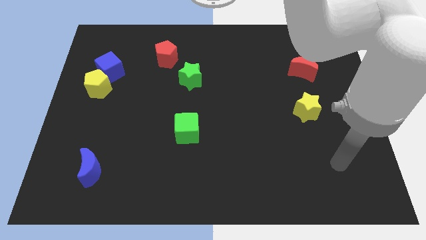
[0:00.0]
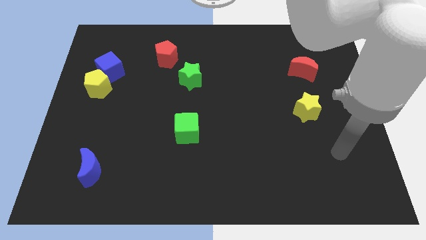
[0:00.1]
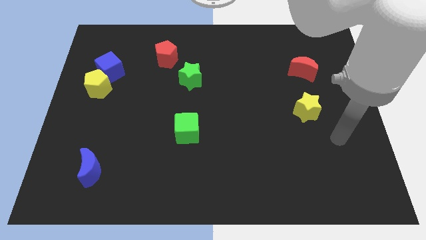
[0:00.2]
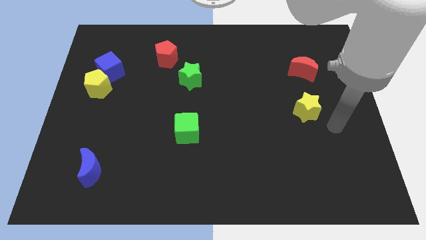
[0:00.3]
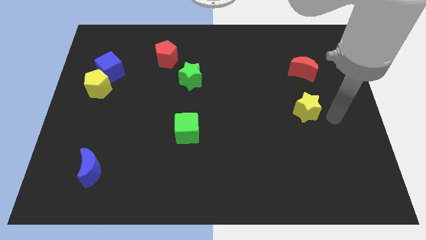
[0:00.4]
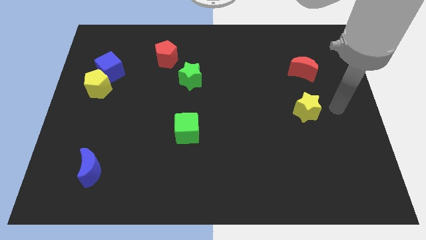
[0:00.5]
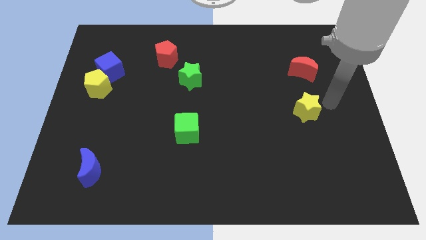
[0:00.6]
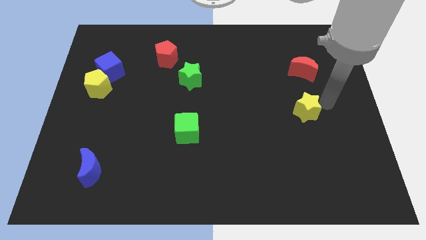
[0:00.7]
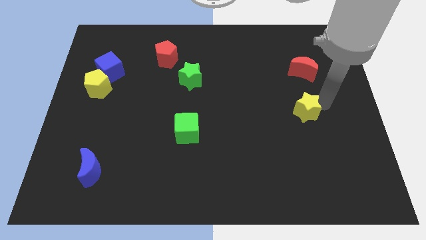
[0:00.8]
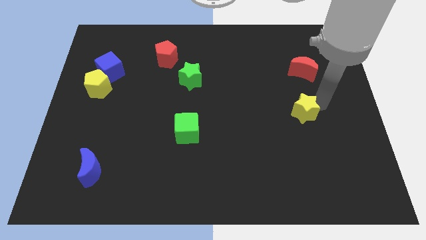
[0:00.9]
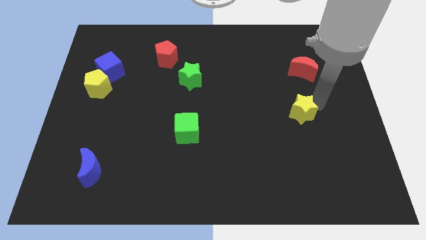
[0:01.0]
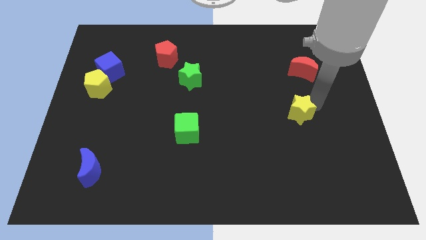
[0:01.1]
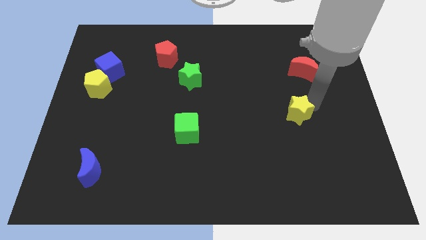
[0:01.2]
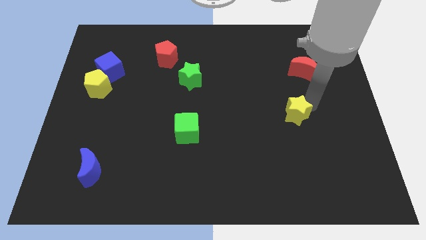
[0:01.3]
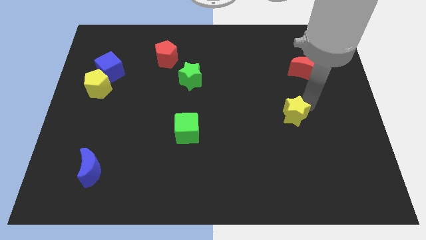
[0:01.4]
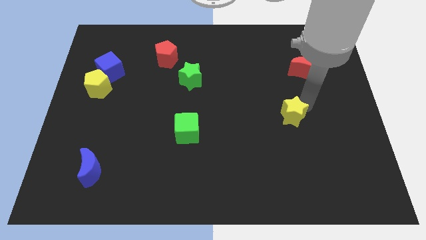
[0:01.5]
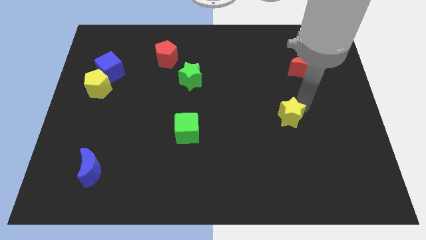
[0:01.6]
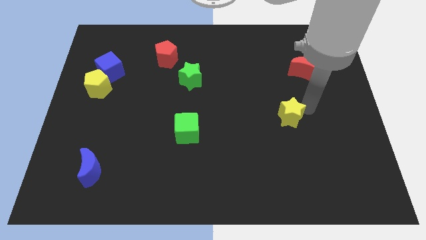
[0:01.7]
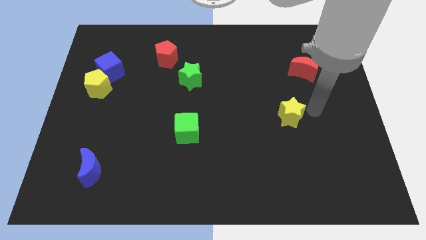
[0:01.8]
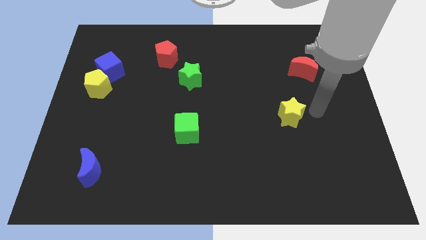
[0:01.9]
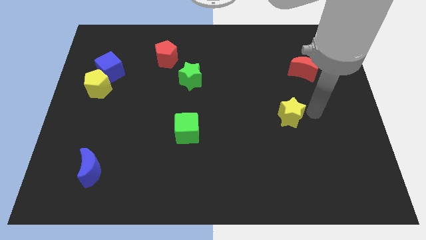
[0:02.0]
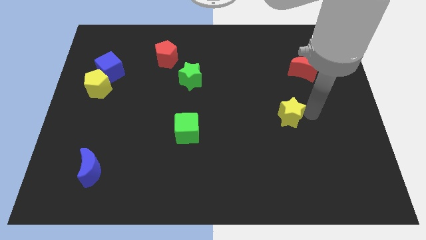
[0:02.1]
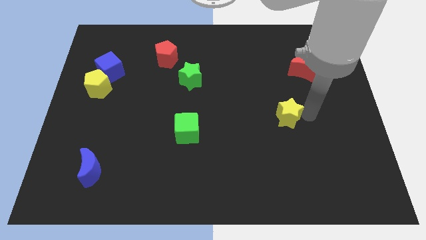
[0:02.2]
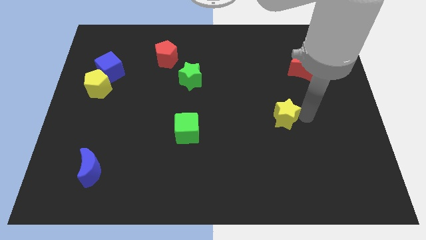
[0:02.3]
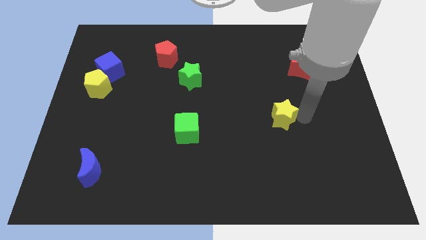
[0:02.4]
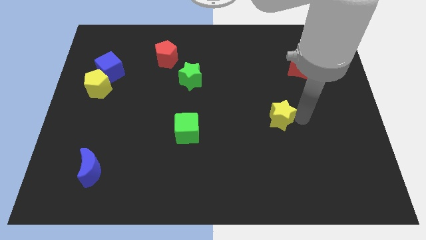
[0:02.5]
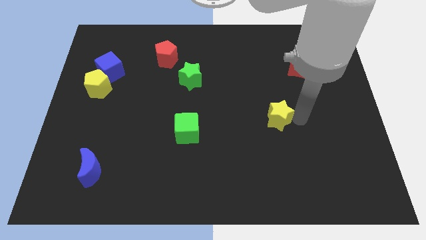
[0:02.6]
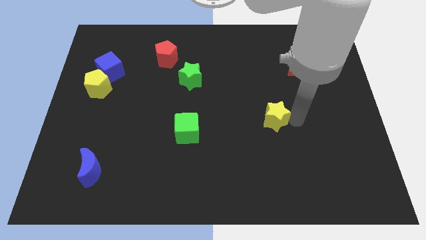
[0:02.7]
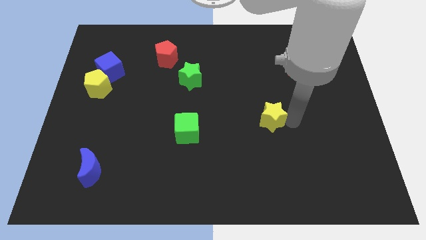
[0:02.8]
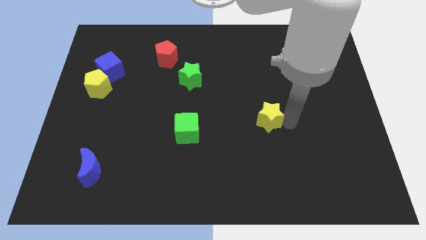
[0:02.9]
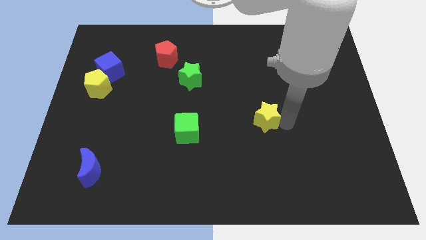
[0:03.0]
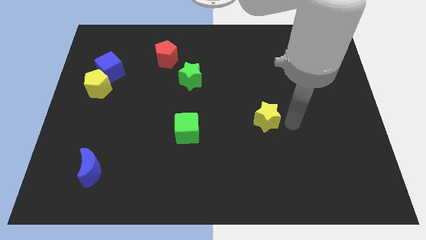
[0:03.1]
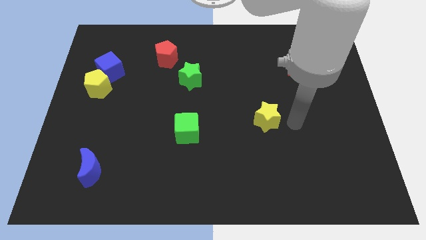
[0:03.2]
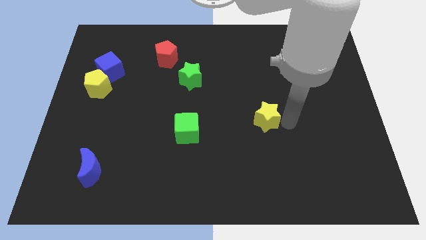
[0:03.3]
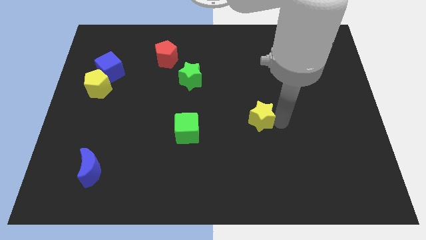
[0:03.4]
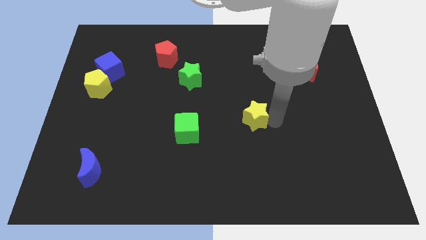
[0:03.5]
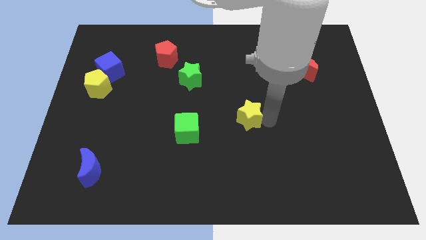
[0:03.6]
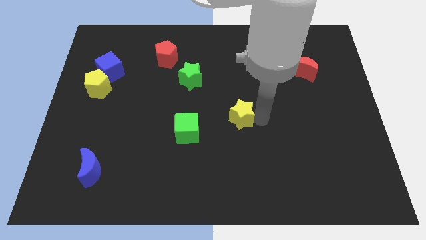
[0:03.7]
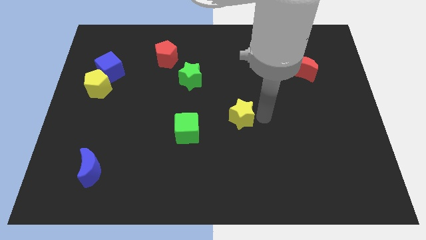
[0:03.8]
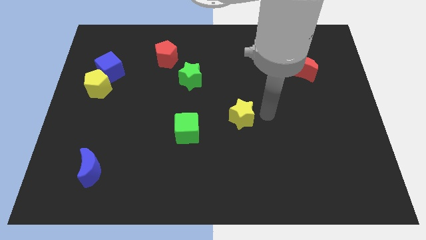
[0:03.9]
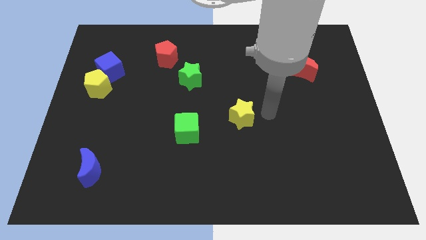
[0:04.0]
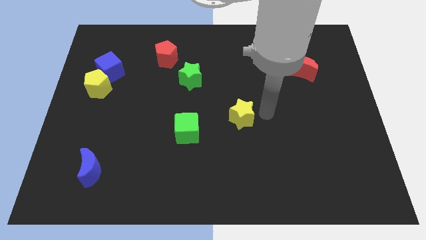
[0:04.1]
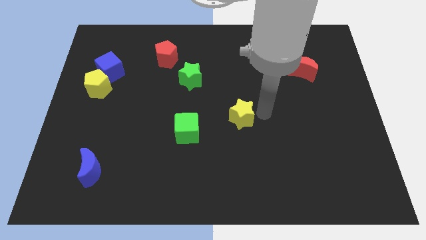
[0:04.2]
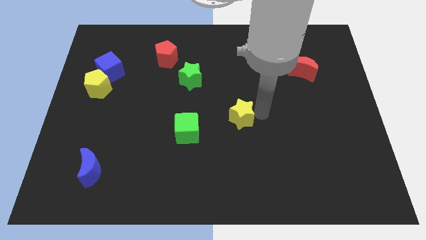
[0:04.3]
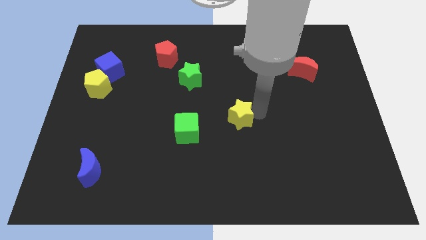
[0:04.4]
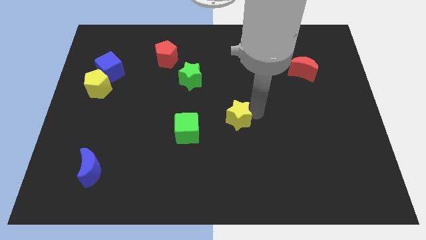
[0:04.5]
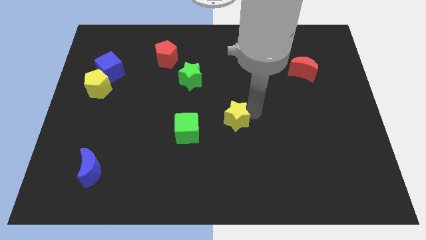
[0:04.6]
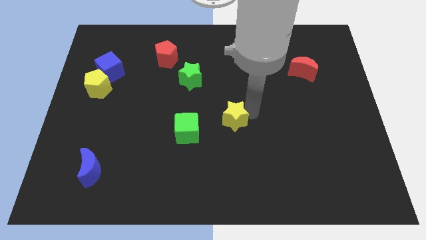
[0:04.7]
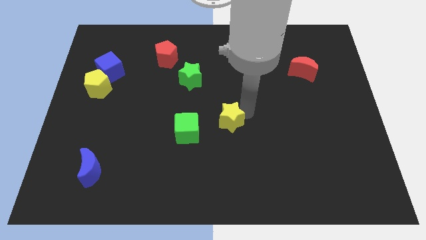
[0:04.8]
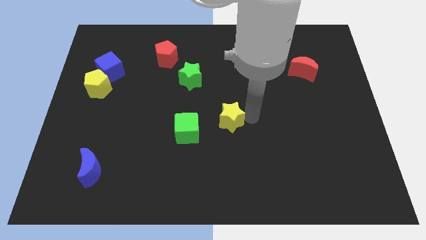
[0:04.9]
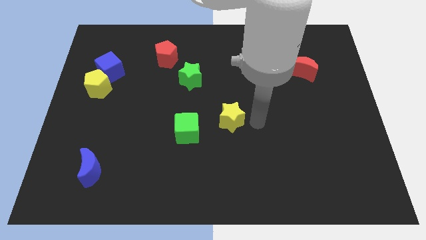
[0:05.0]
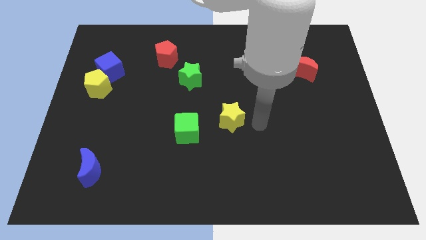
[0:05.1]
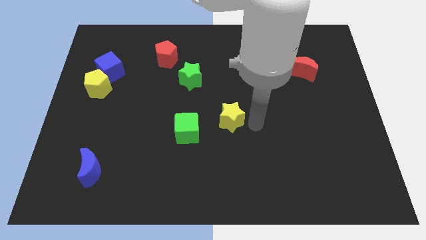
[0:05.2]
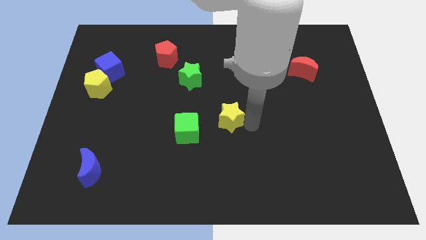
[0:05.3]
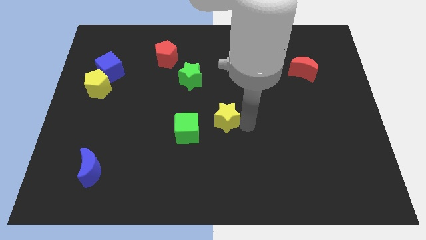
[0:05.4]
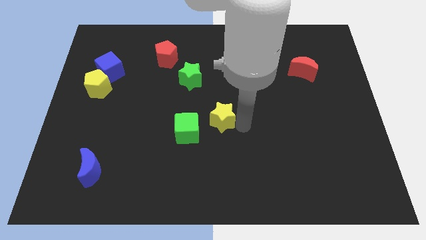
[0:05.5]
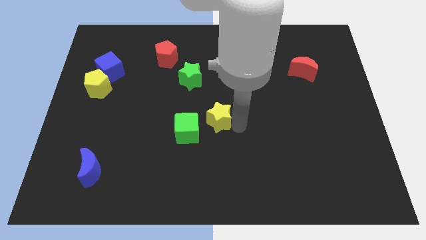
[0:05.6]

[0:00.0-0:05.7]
push the yellow star left

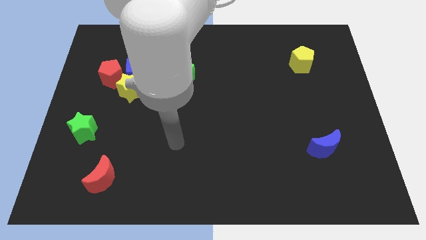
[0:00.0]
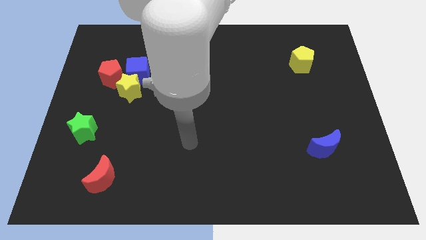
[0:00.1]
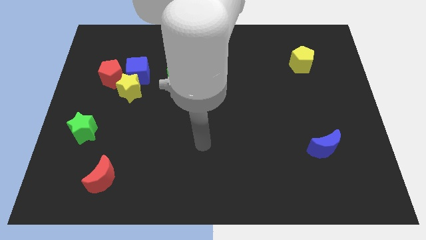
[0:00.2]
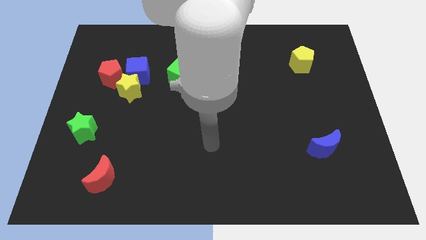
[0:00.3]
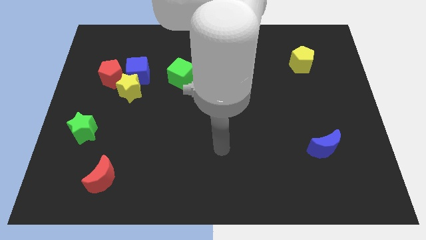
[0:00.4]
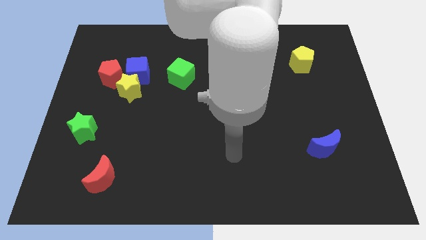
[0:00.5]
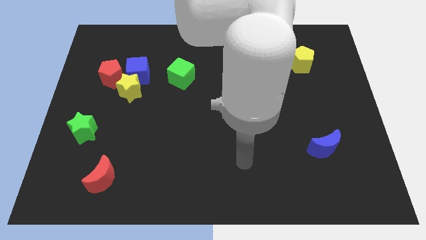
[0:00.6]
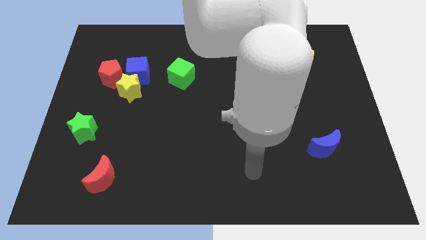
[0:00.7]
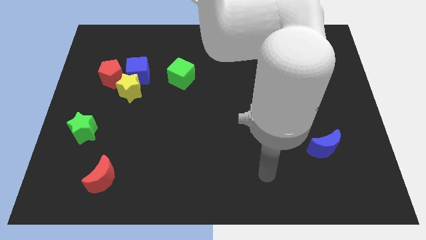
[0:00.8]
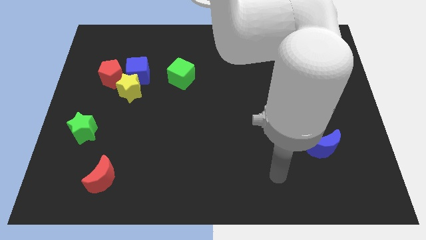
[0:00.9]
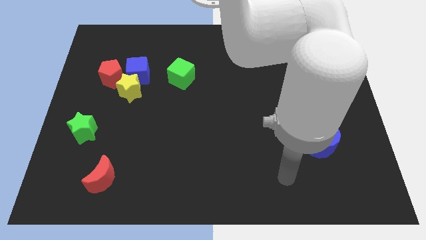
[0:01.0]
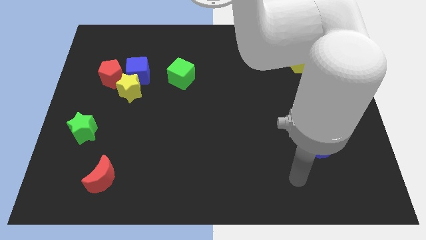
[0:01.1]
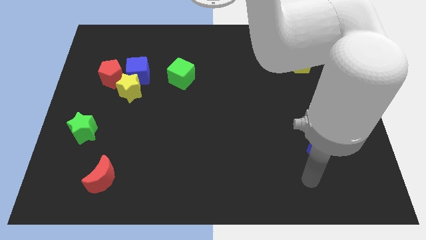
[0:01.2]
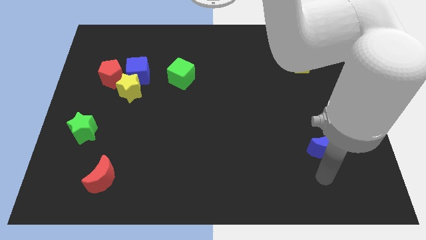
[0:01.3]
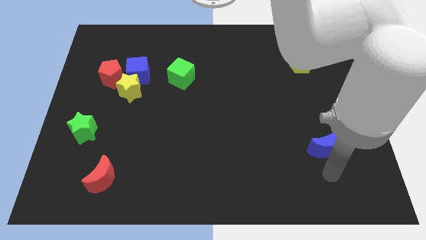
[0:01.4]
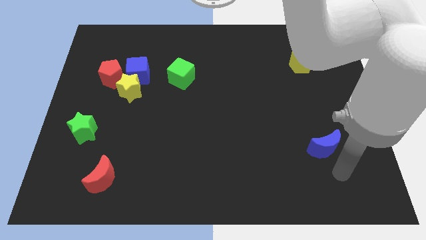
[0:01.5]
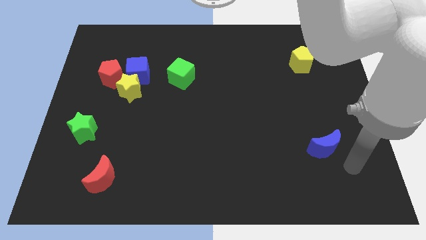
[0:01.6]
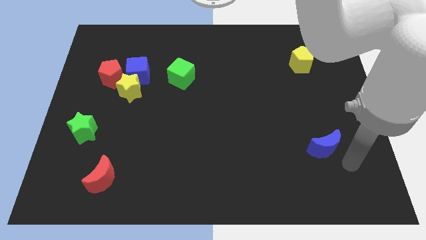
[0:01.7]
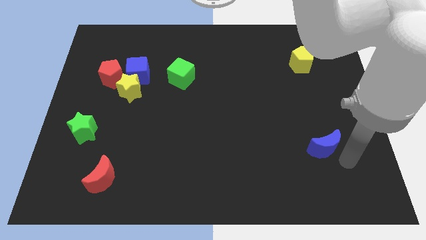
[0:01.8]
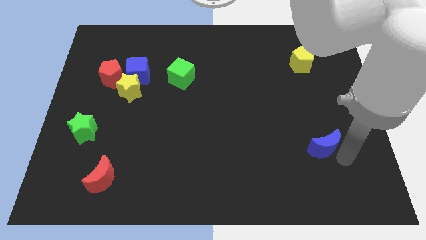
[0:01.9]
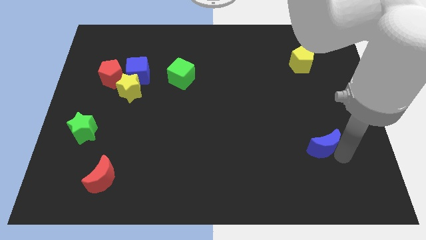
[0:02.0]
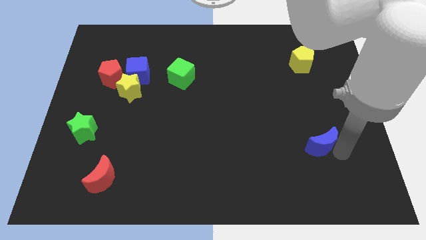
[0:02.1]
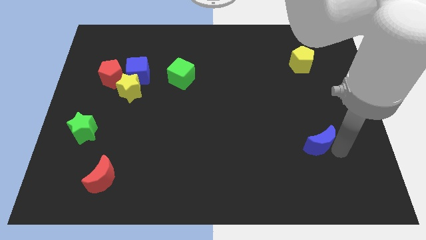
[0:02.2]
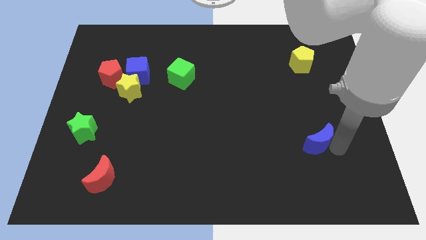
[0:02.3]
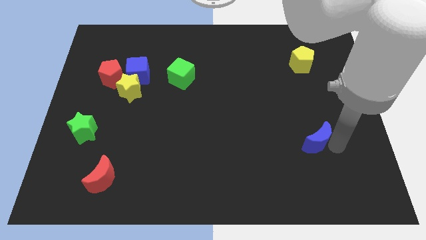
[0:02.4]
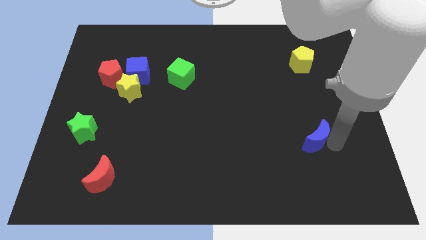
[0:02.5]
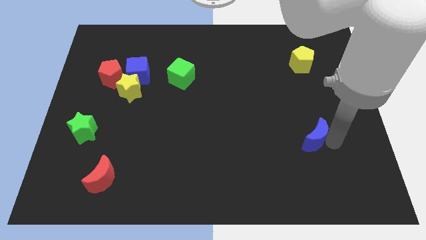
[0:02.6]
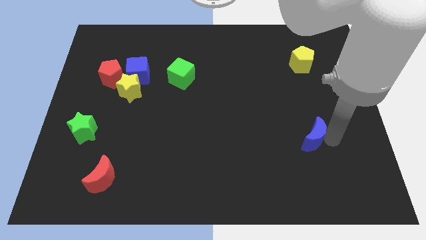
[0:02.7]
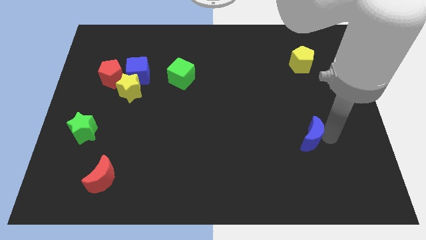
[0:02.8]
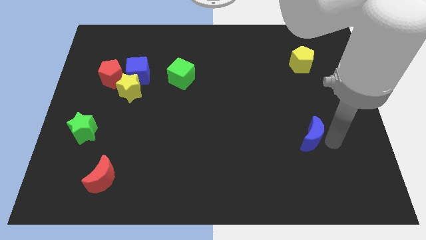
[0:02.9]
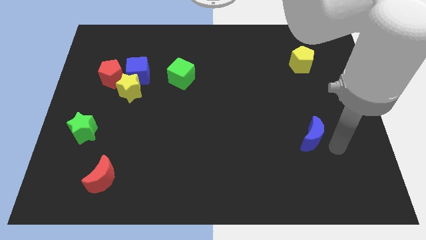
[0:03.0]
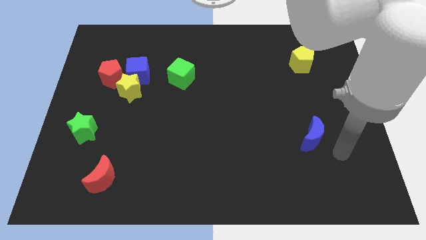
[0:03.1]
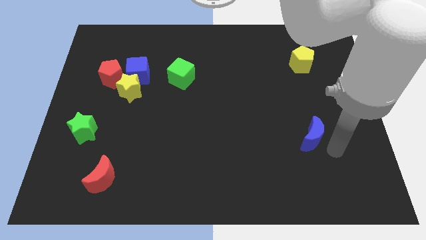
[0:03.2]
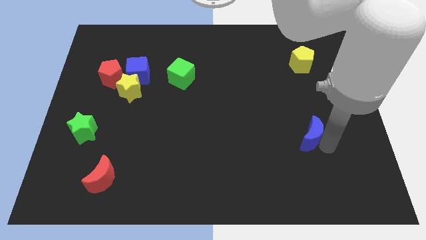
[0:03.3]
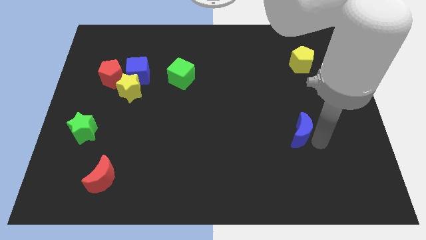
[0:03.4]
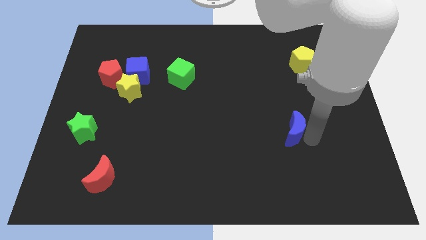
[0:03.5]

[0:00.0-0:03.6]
slide the blue moon a little bit up and left
